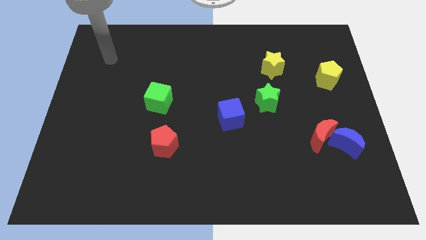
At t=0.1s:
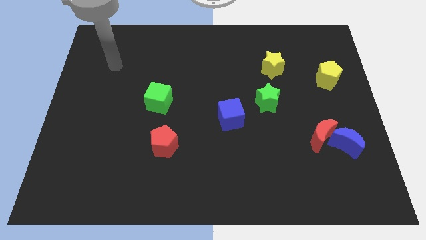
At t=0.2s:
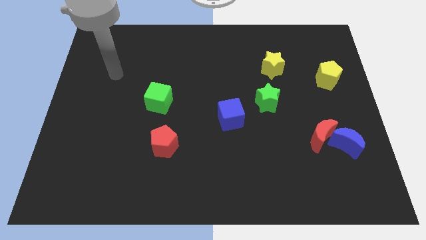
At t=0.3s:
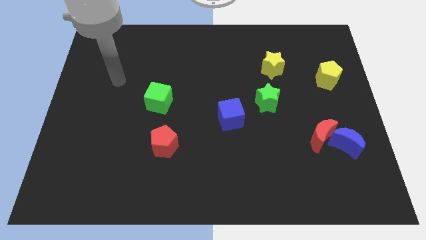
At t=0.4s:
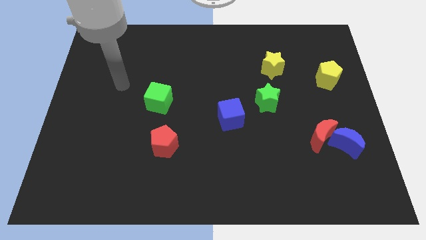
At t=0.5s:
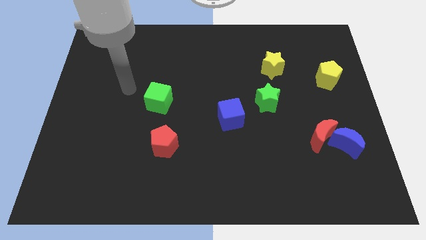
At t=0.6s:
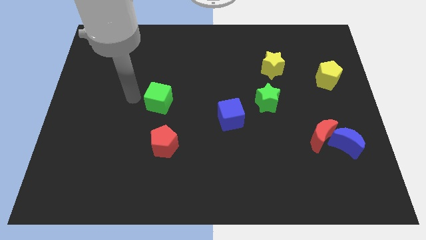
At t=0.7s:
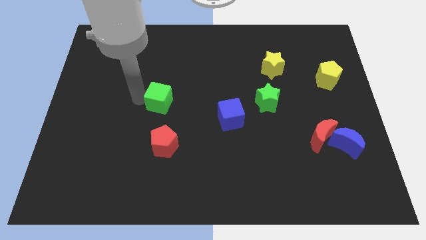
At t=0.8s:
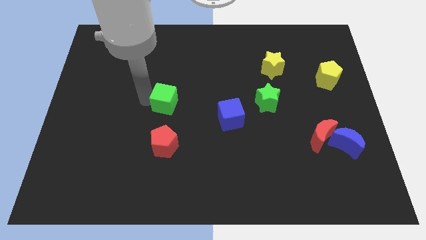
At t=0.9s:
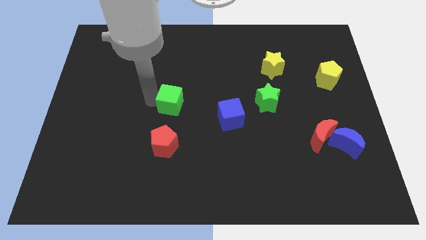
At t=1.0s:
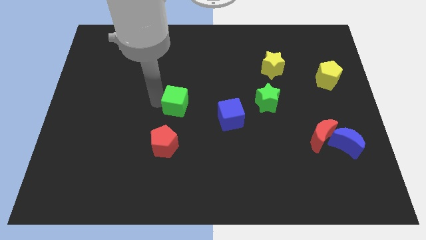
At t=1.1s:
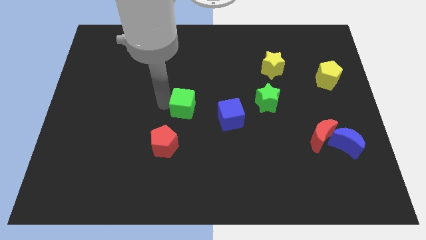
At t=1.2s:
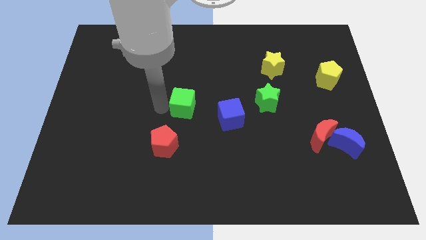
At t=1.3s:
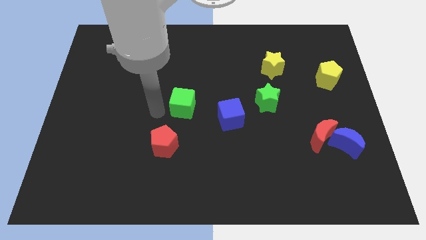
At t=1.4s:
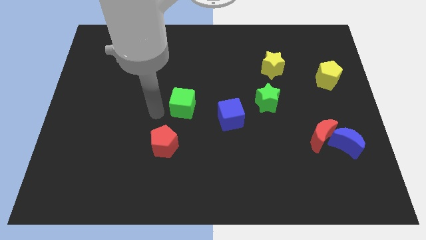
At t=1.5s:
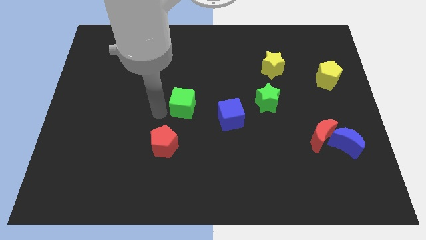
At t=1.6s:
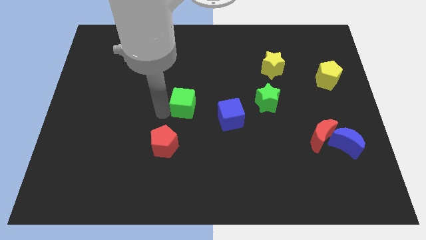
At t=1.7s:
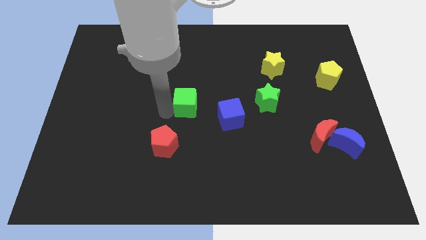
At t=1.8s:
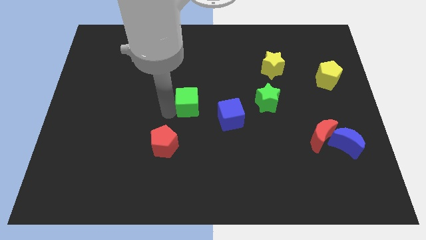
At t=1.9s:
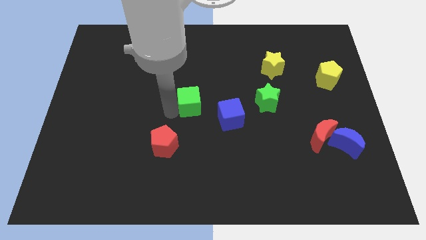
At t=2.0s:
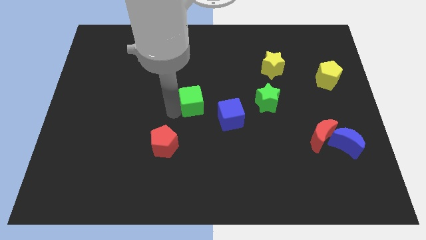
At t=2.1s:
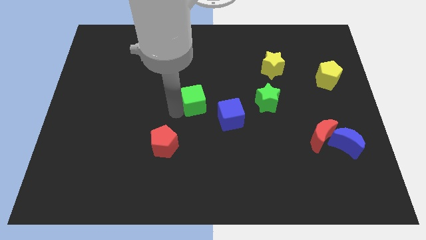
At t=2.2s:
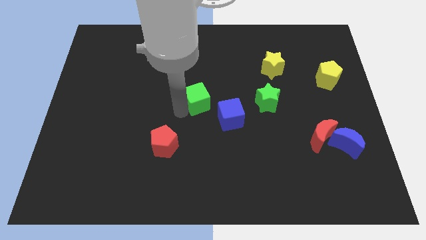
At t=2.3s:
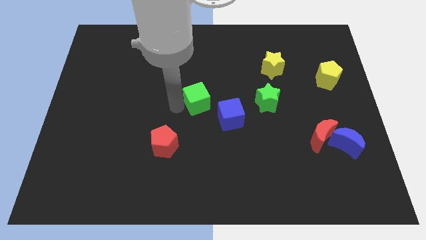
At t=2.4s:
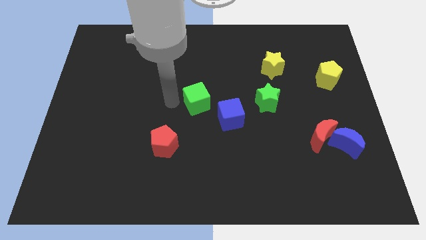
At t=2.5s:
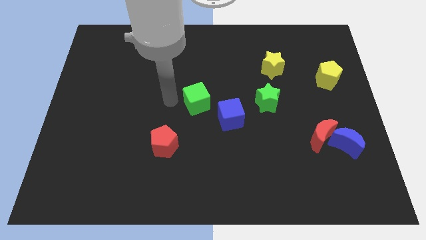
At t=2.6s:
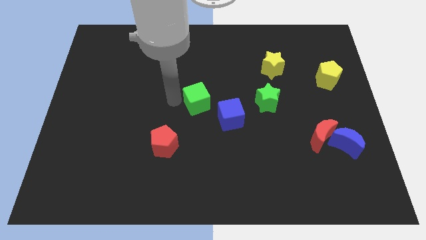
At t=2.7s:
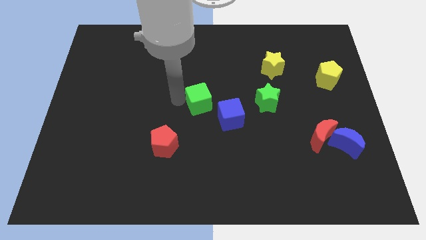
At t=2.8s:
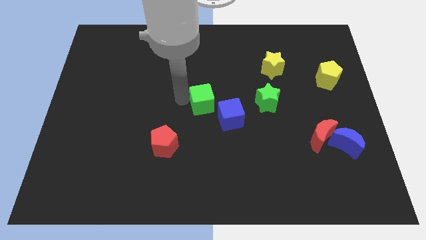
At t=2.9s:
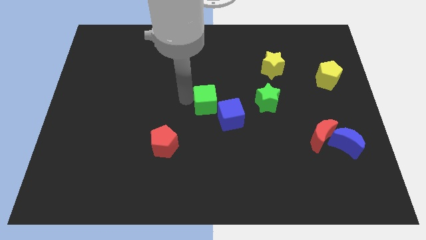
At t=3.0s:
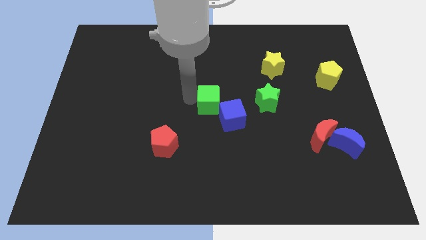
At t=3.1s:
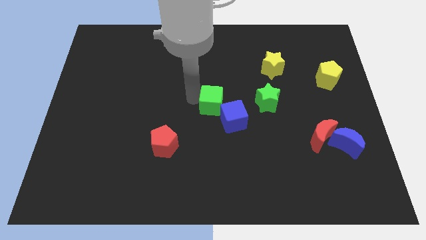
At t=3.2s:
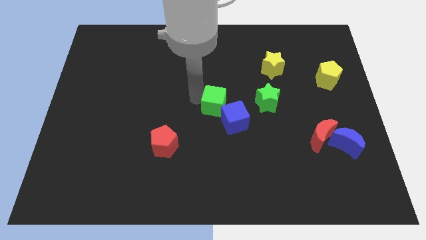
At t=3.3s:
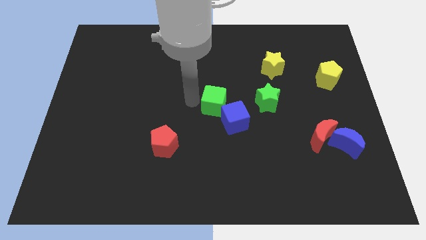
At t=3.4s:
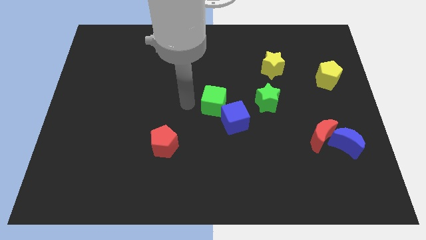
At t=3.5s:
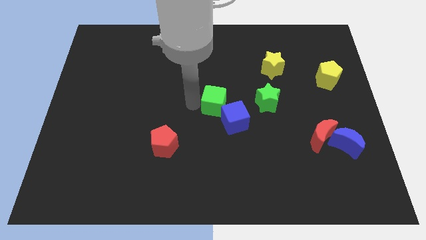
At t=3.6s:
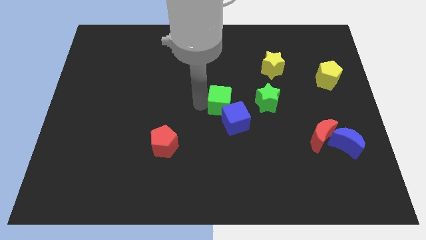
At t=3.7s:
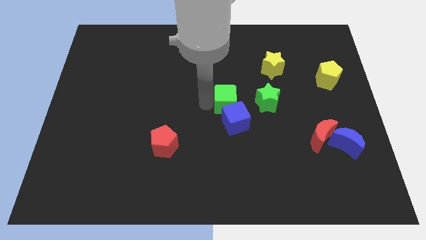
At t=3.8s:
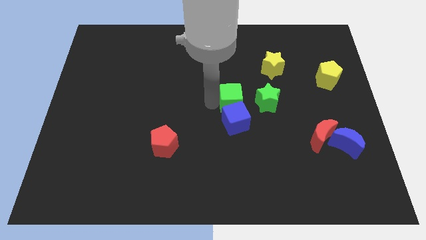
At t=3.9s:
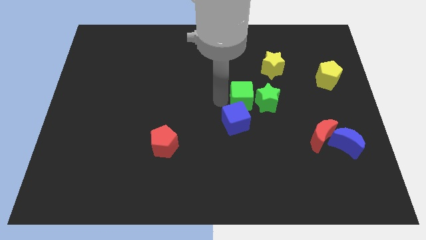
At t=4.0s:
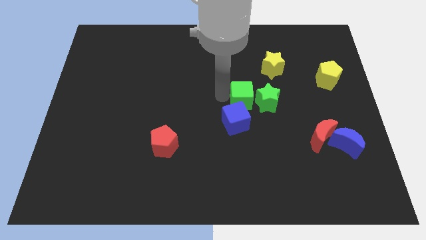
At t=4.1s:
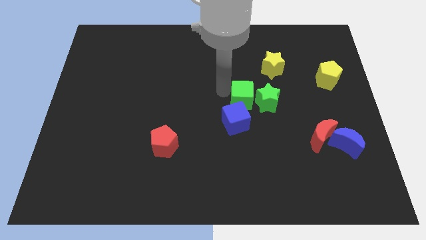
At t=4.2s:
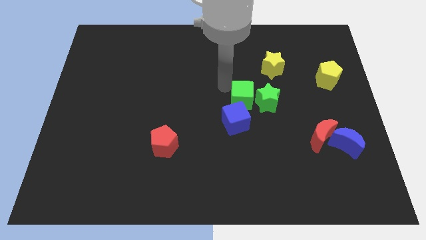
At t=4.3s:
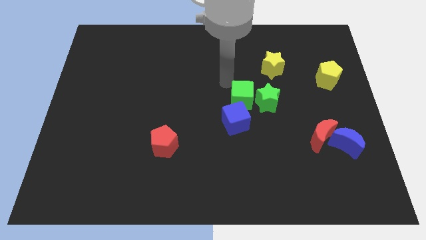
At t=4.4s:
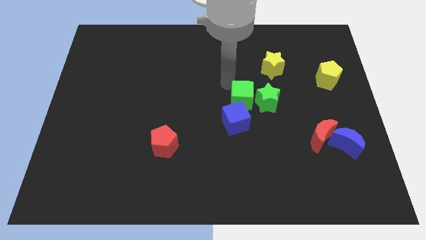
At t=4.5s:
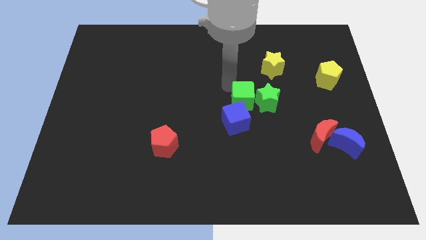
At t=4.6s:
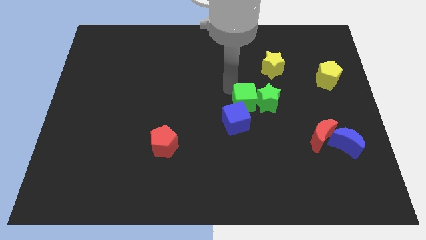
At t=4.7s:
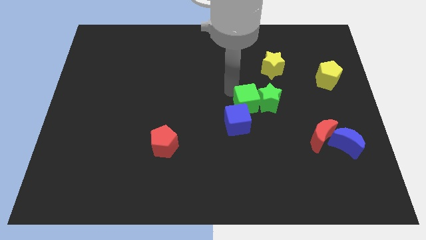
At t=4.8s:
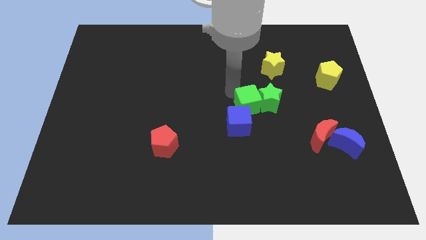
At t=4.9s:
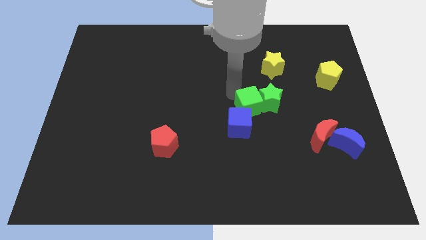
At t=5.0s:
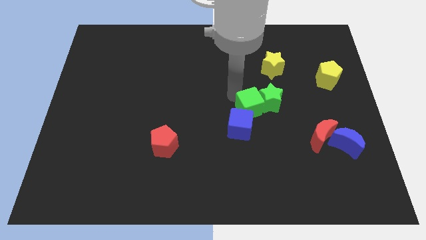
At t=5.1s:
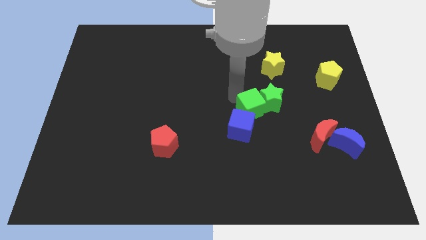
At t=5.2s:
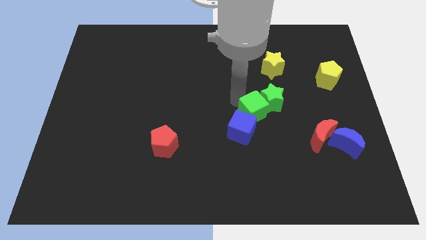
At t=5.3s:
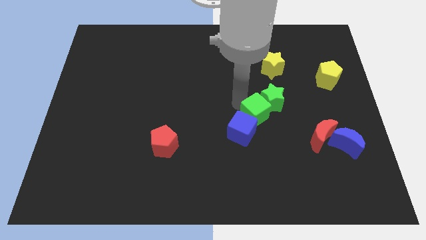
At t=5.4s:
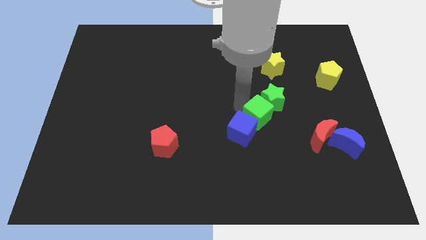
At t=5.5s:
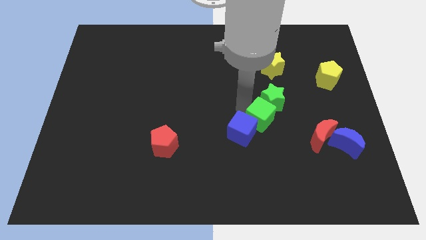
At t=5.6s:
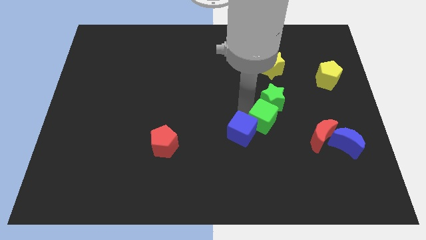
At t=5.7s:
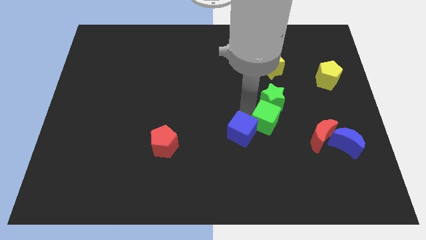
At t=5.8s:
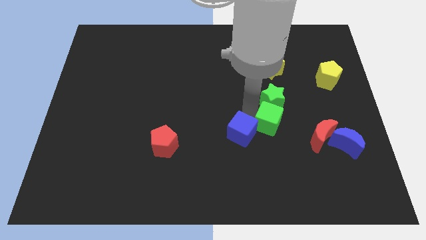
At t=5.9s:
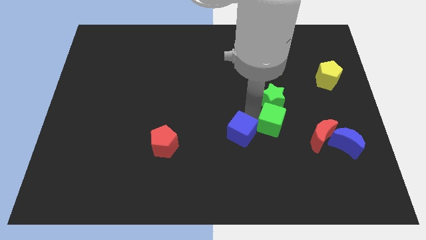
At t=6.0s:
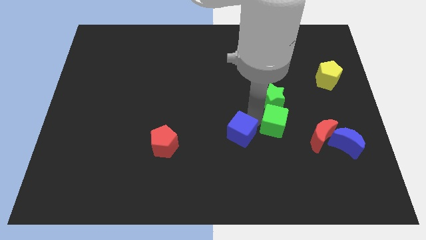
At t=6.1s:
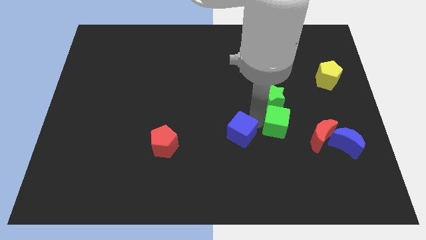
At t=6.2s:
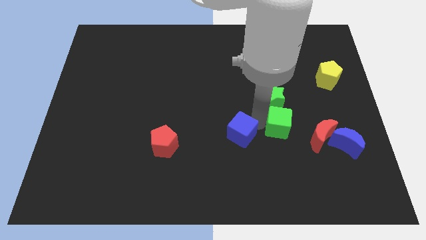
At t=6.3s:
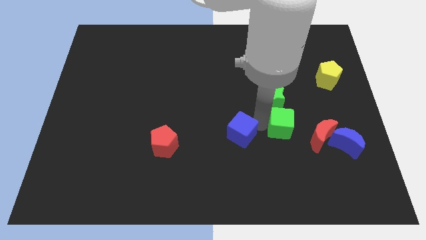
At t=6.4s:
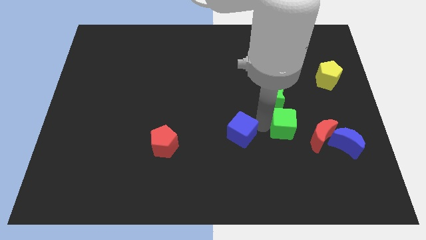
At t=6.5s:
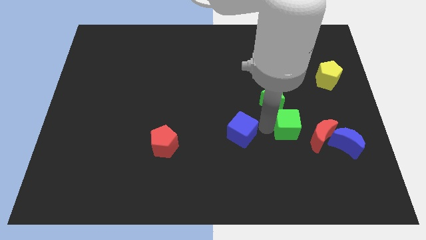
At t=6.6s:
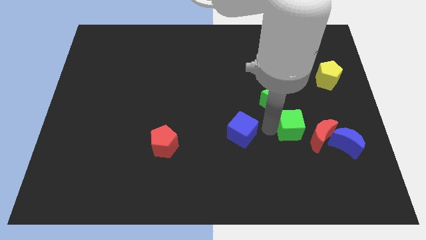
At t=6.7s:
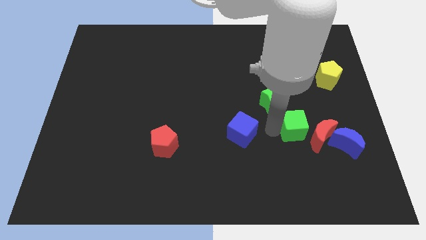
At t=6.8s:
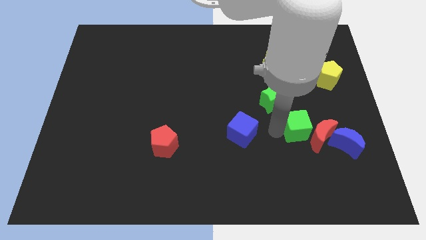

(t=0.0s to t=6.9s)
push the green cube diagonally up and to the left of the blue moon

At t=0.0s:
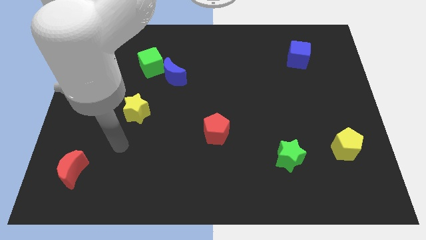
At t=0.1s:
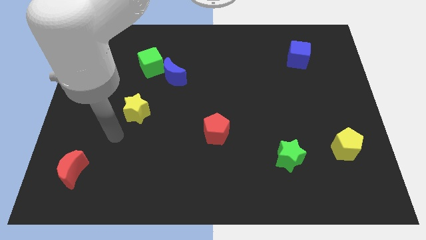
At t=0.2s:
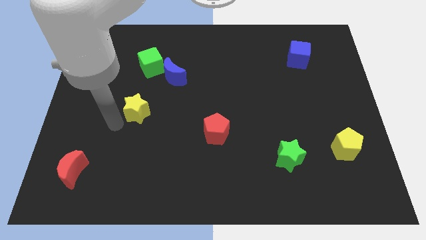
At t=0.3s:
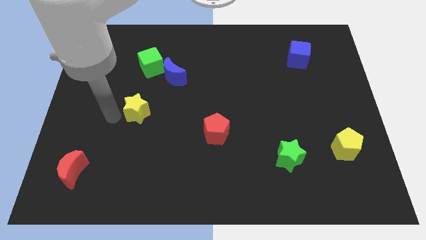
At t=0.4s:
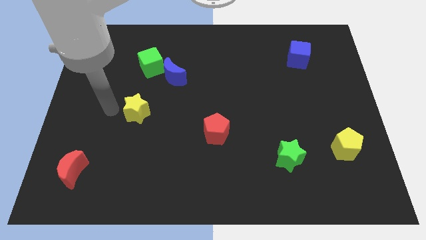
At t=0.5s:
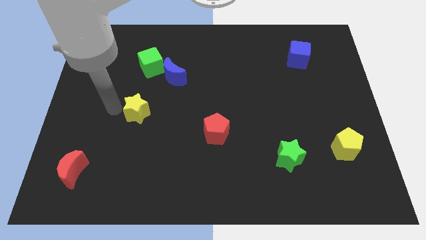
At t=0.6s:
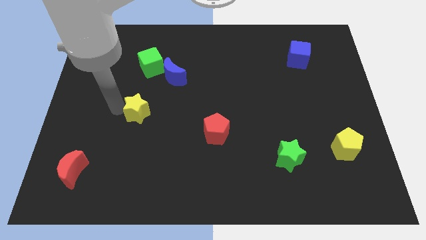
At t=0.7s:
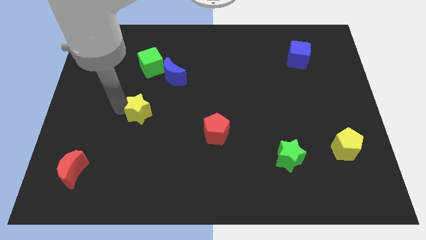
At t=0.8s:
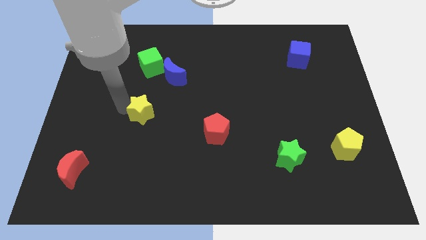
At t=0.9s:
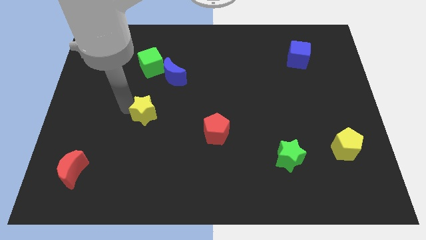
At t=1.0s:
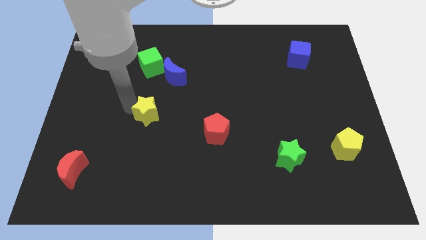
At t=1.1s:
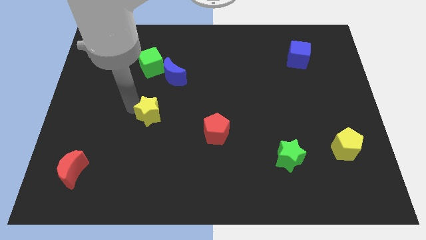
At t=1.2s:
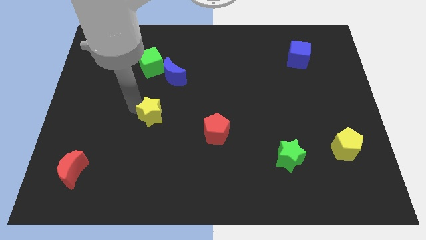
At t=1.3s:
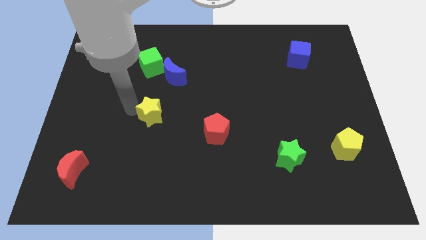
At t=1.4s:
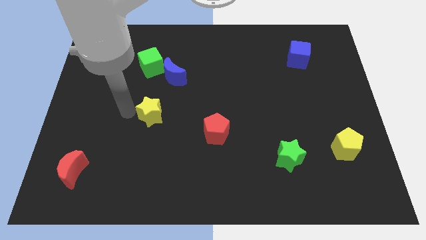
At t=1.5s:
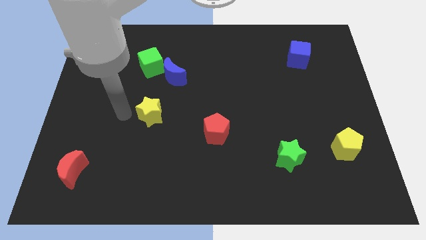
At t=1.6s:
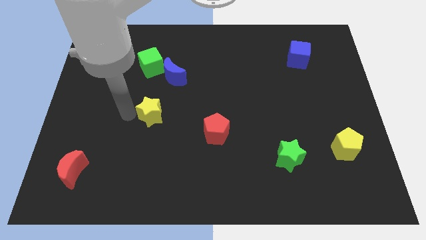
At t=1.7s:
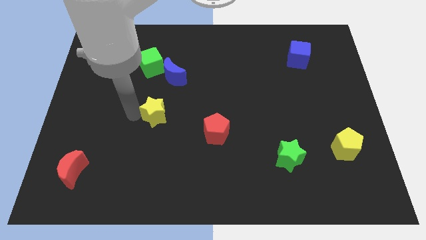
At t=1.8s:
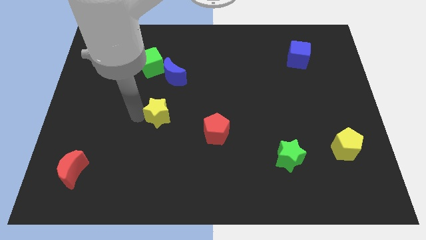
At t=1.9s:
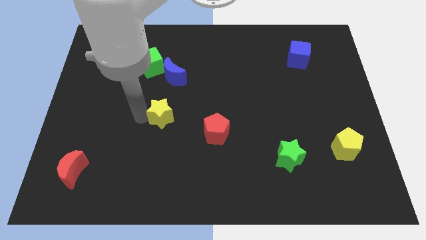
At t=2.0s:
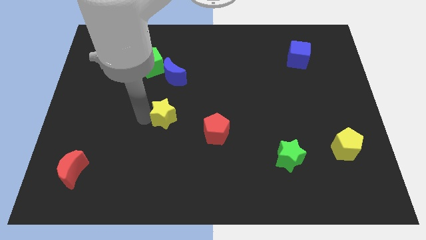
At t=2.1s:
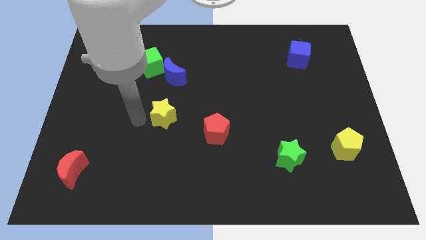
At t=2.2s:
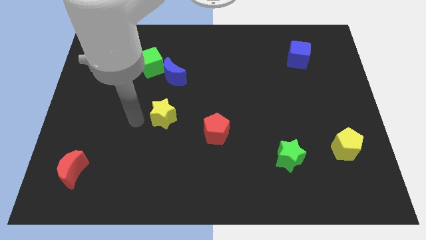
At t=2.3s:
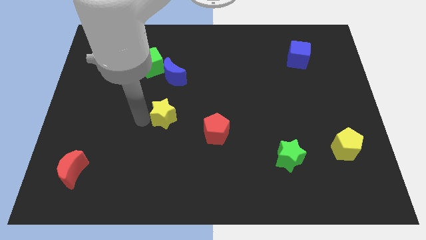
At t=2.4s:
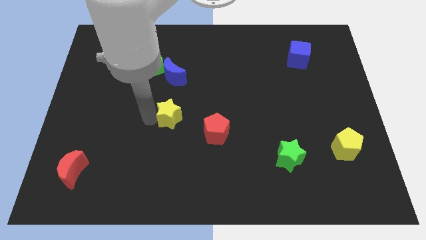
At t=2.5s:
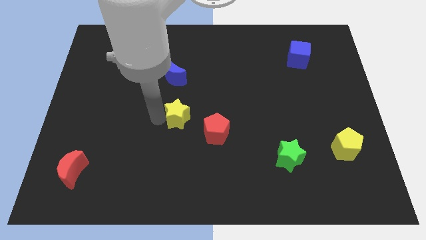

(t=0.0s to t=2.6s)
put the yellow star diagonally up and to the left of the red pentagon
